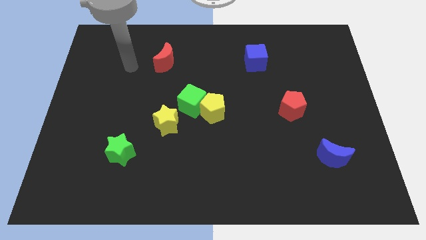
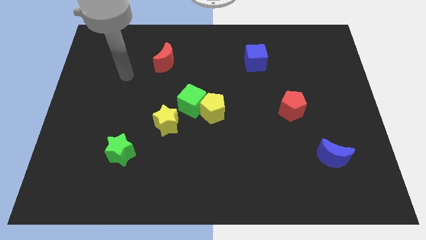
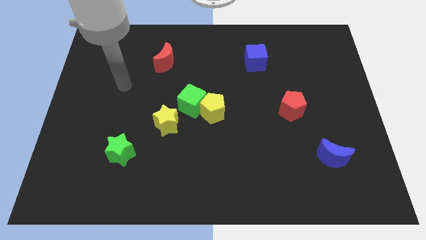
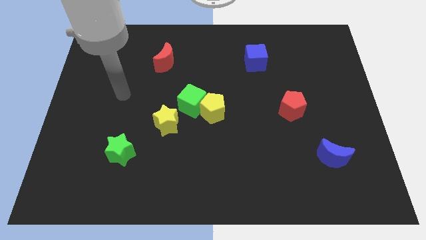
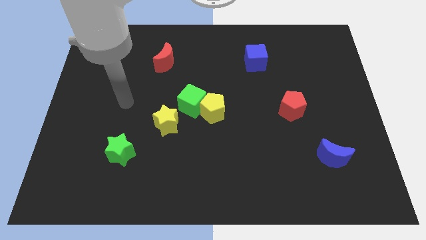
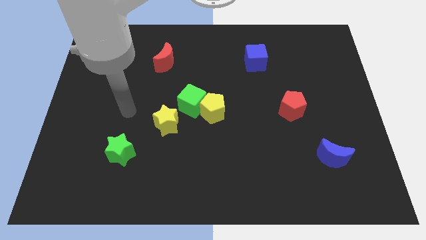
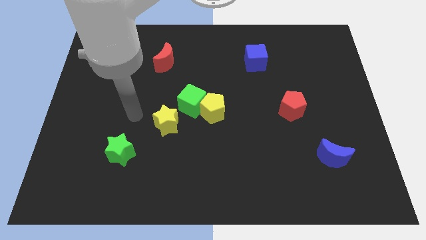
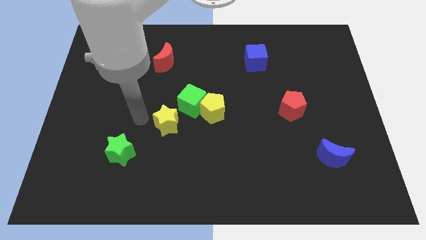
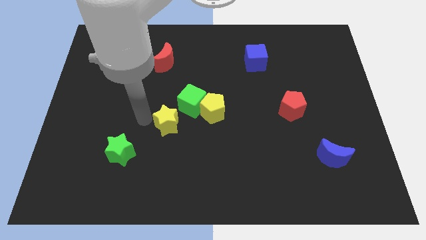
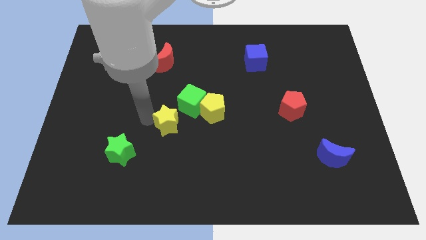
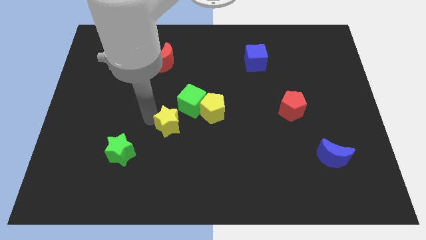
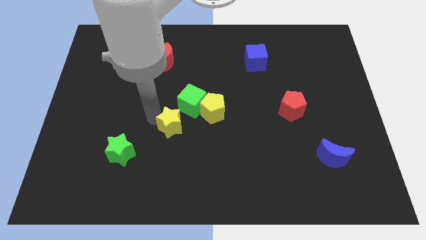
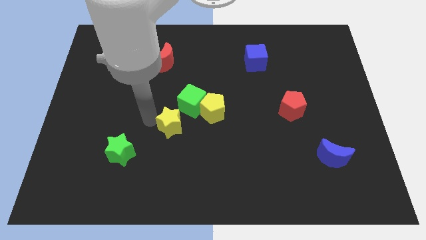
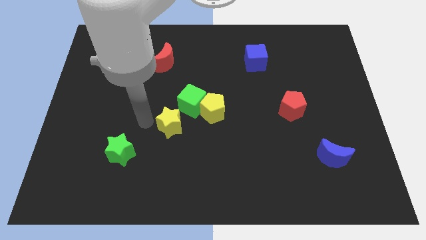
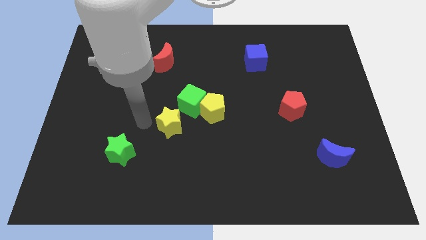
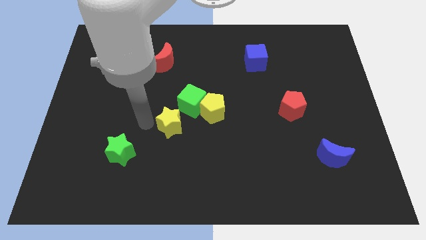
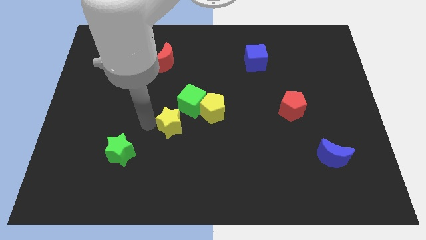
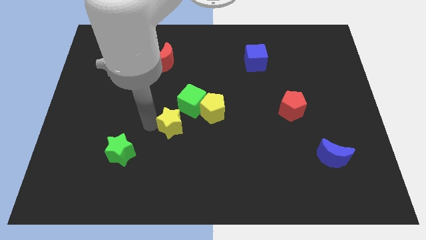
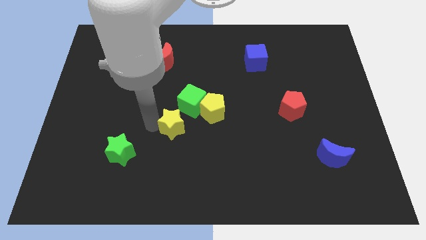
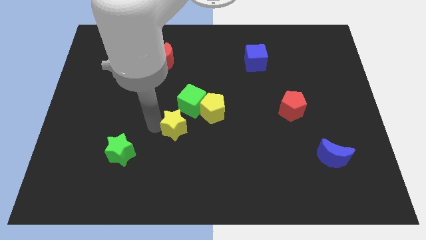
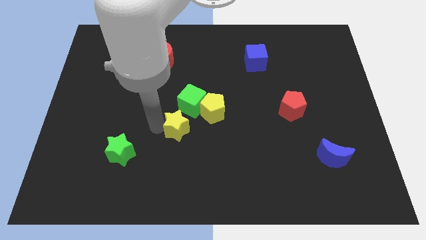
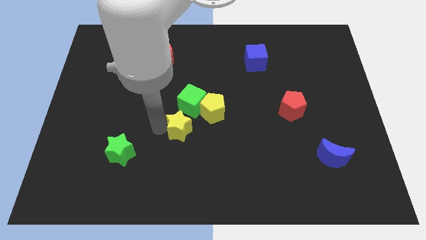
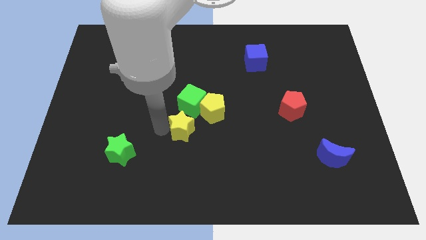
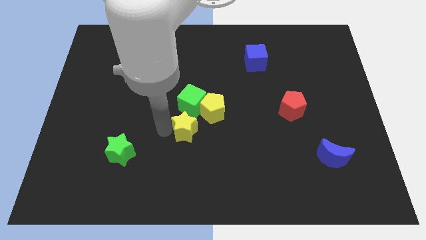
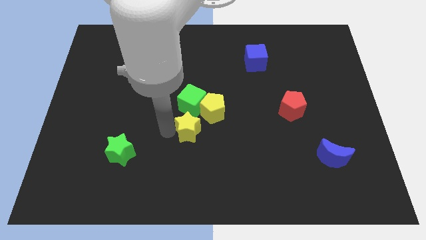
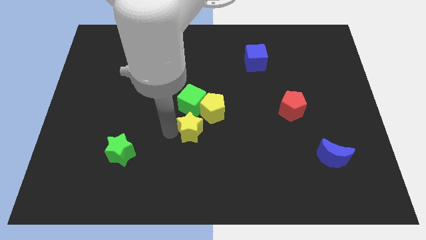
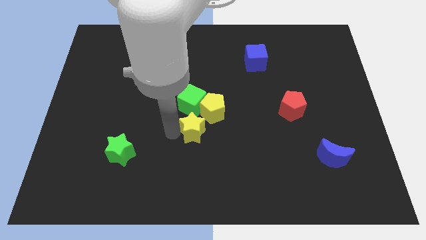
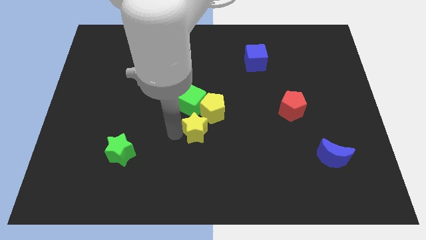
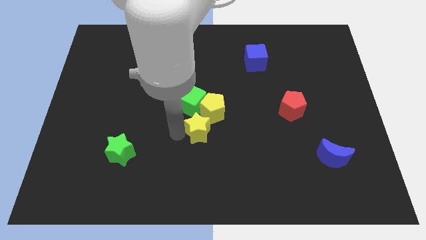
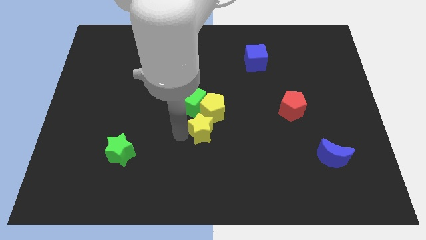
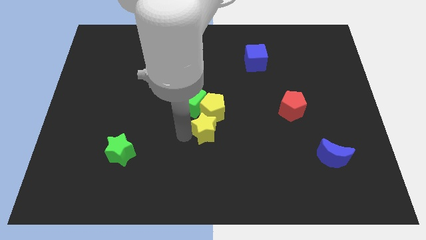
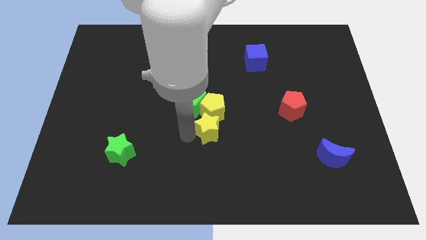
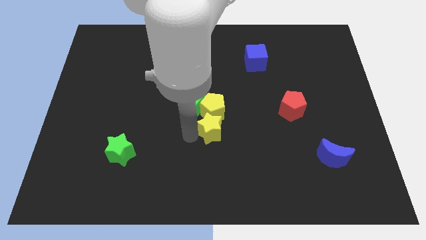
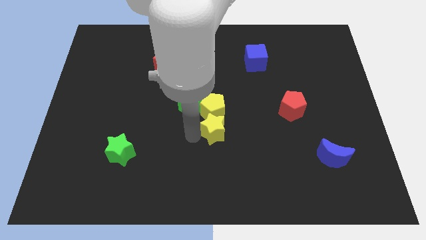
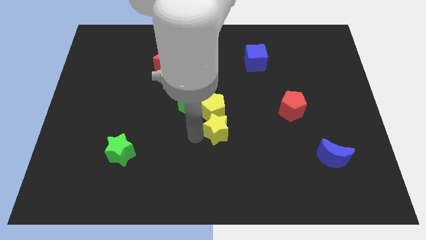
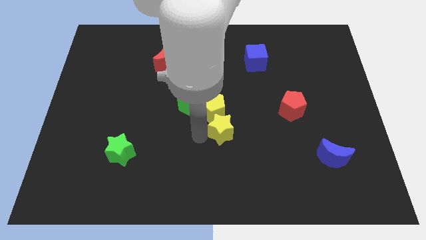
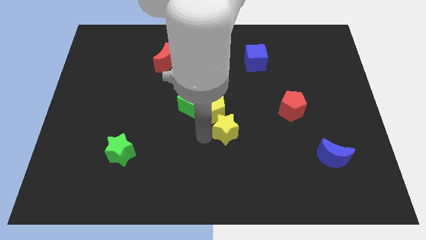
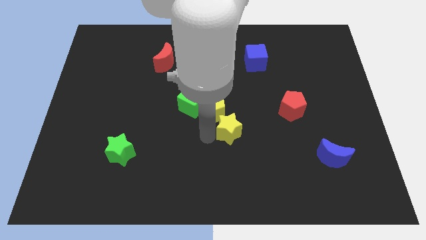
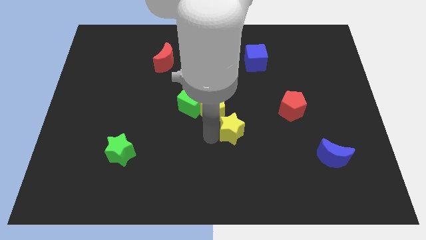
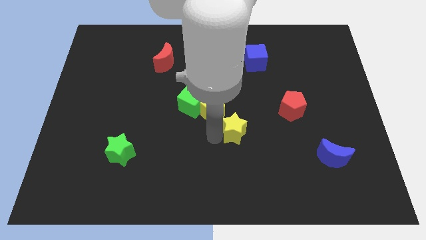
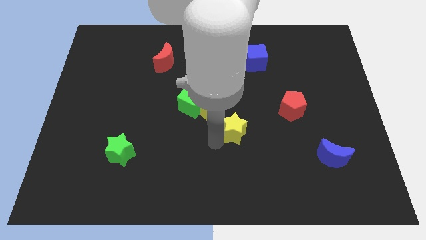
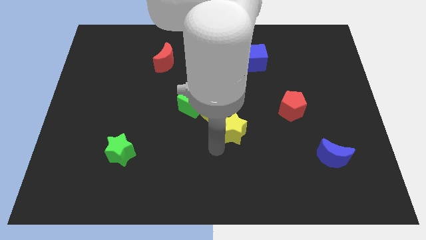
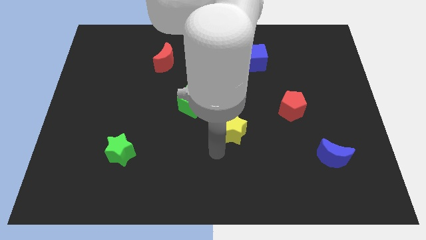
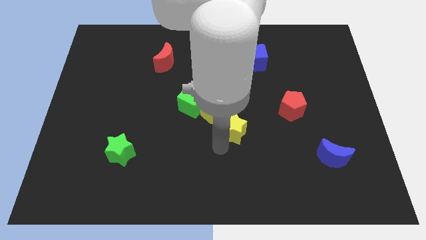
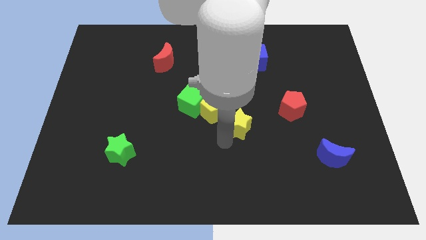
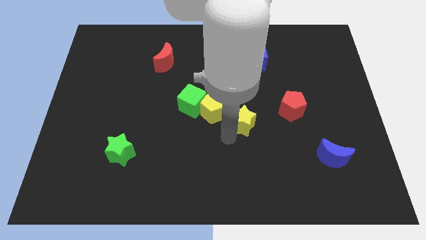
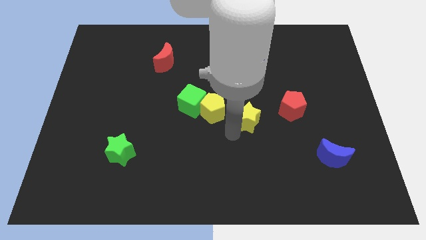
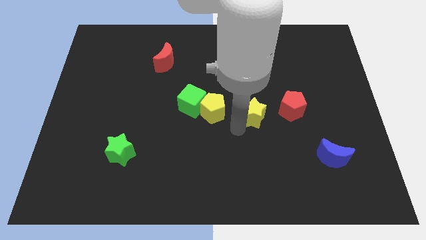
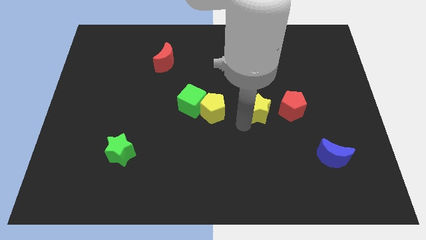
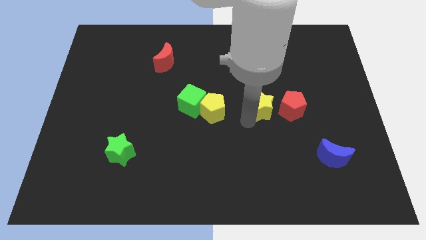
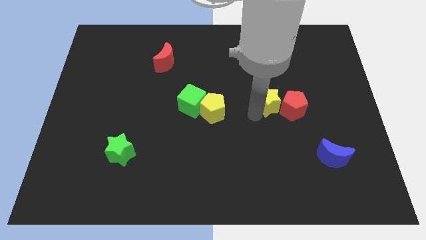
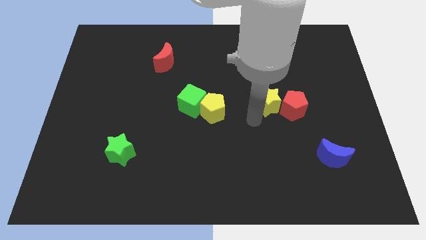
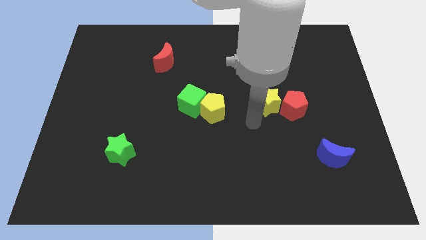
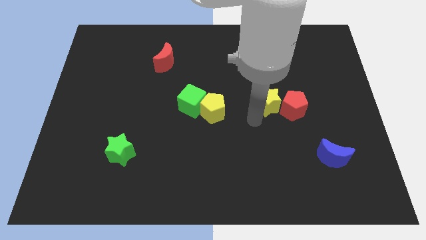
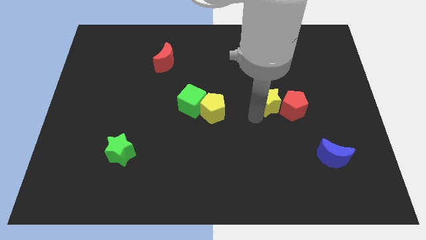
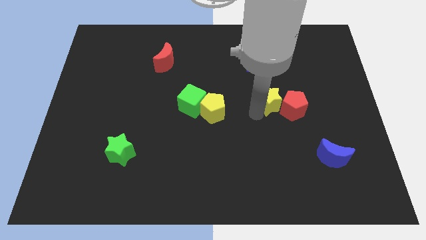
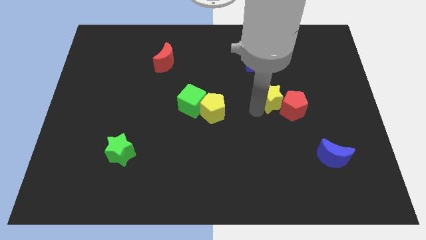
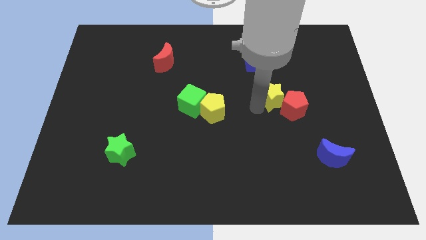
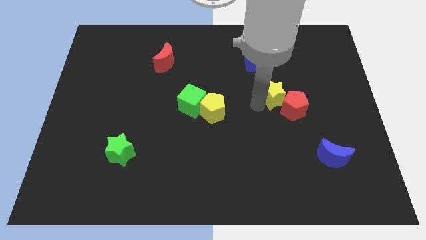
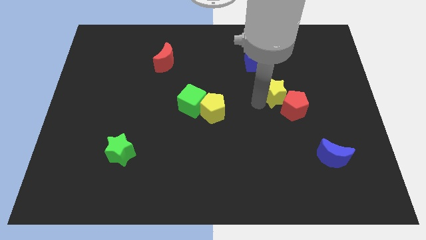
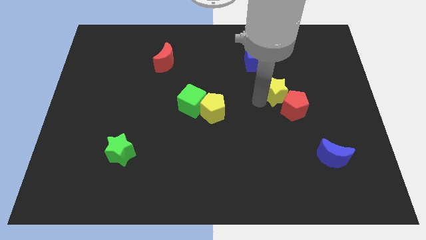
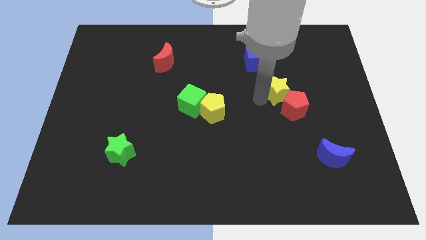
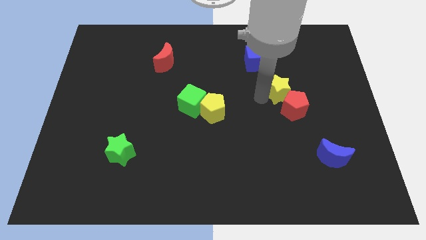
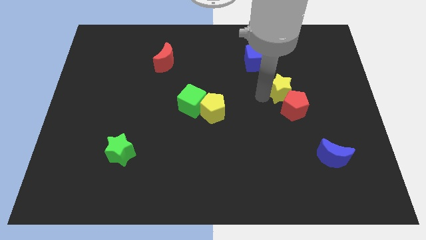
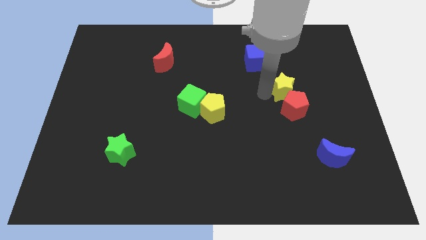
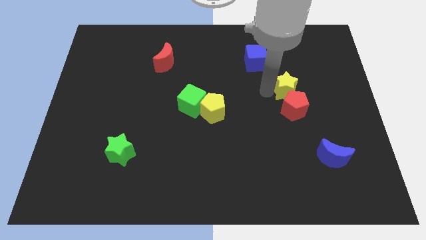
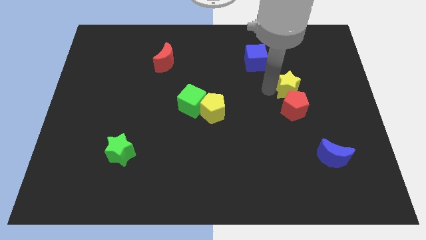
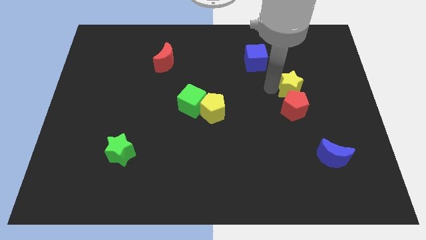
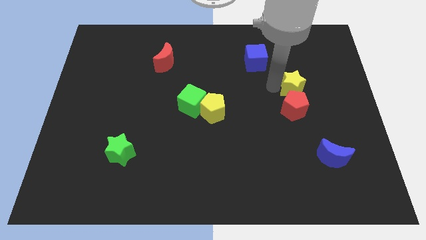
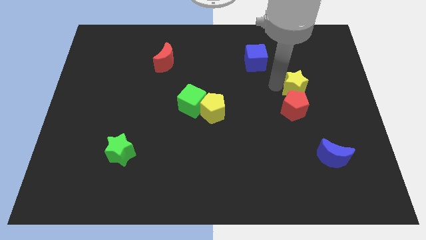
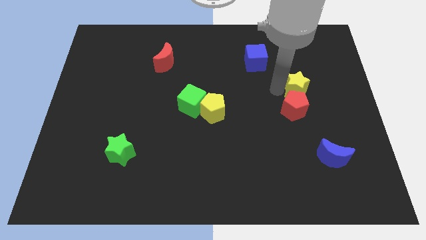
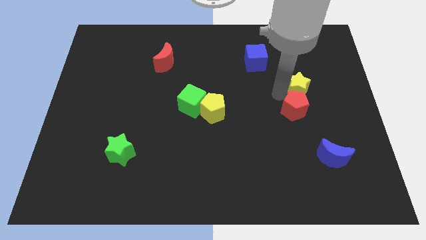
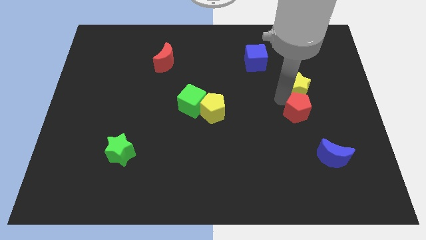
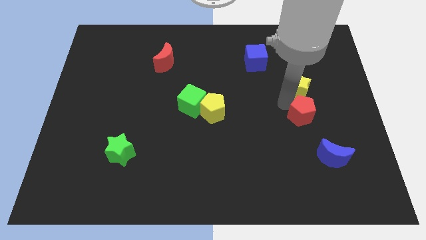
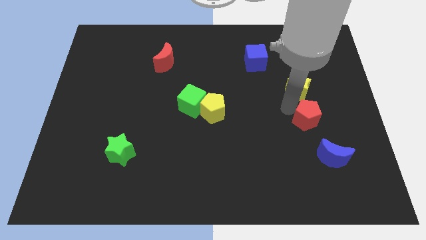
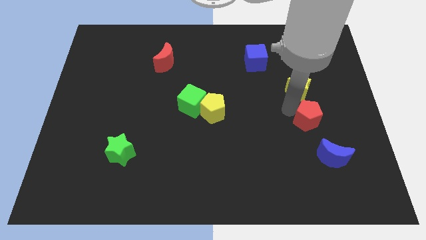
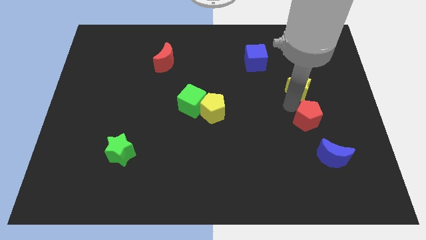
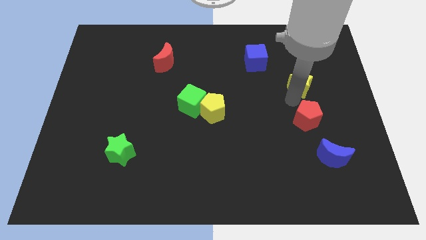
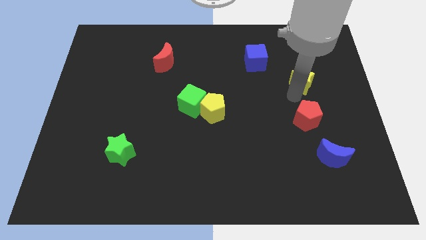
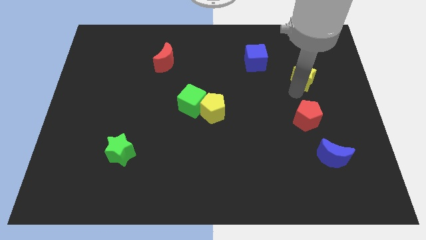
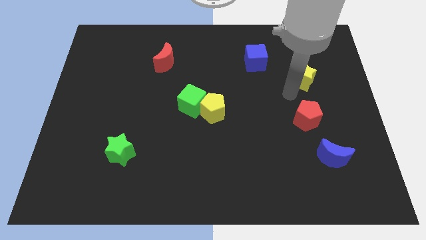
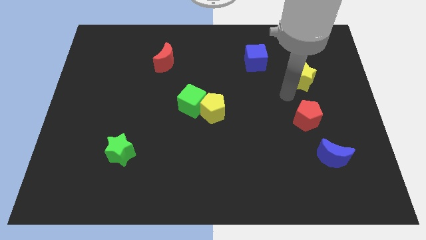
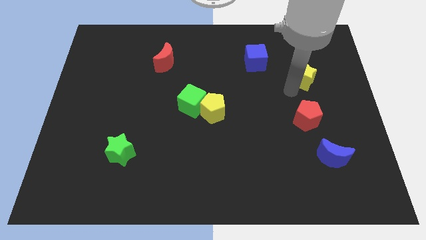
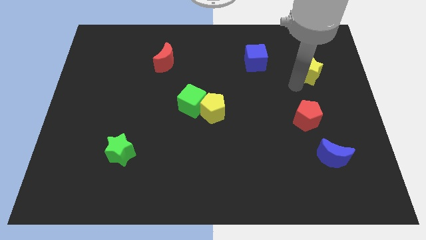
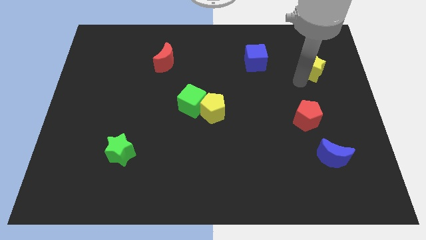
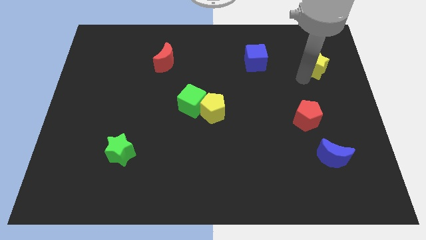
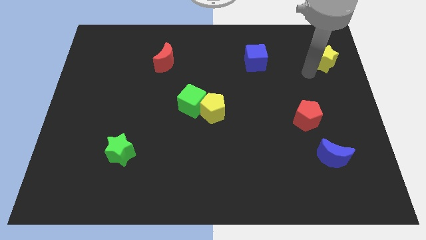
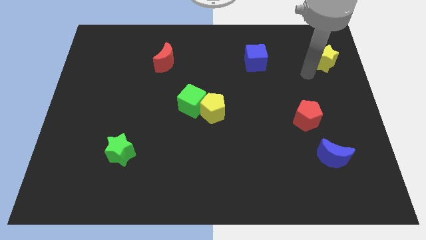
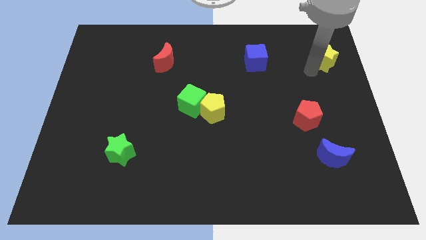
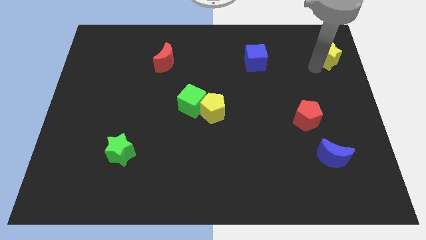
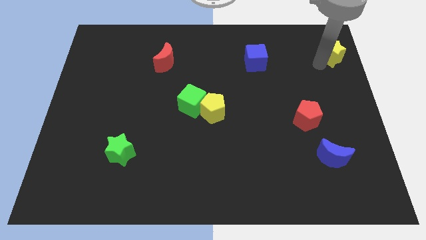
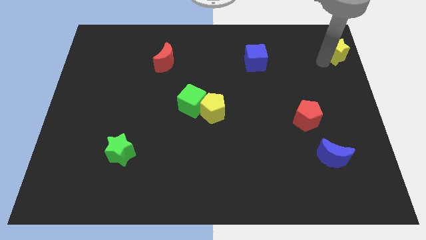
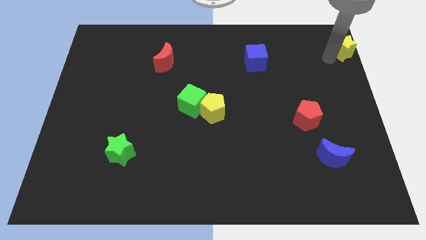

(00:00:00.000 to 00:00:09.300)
put the yellow star to the upper right corner
